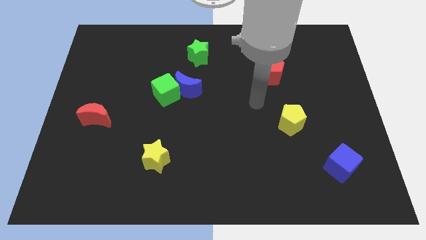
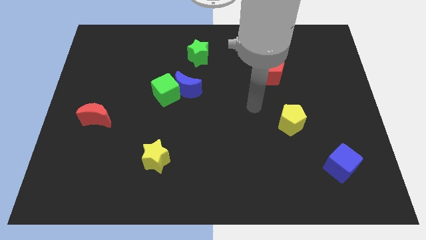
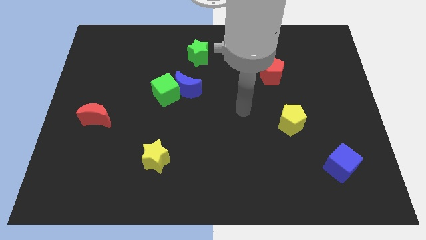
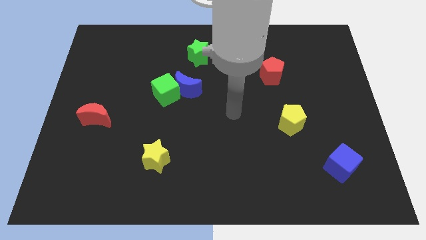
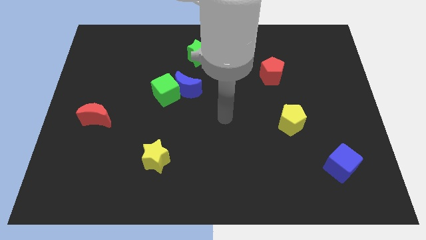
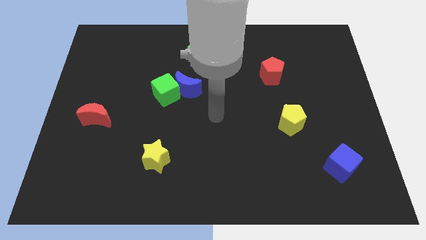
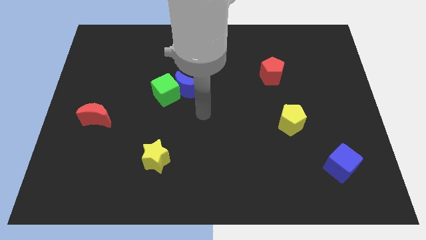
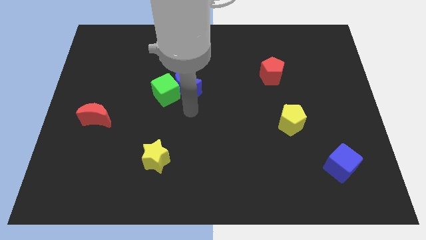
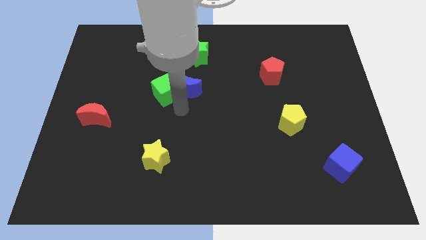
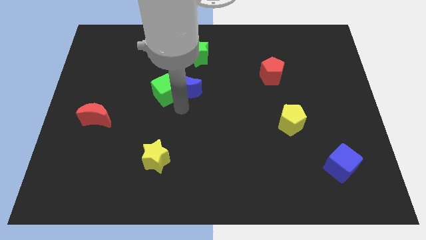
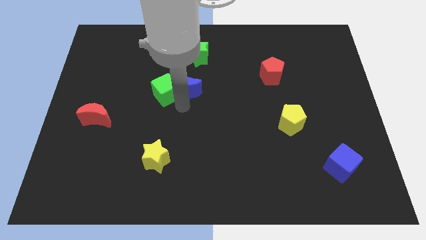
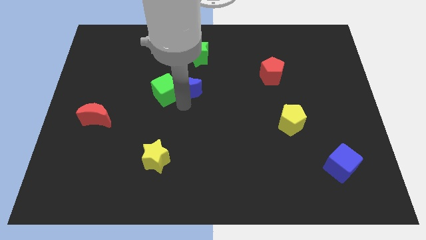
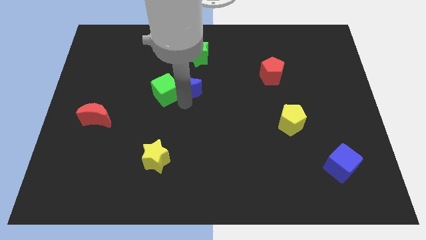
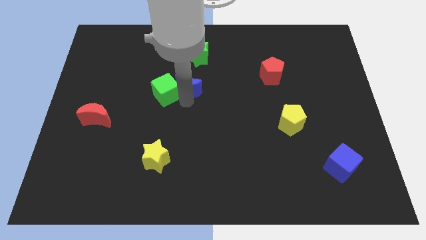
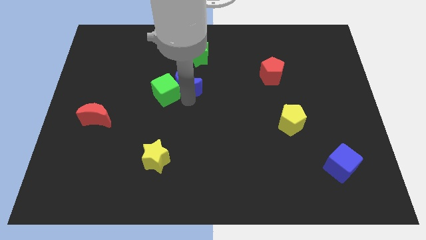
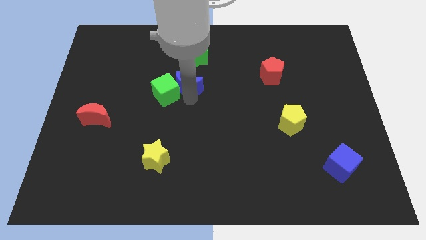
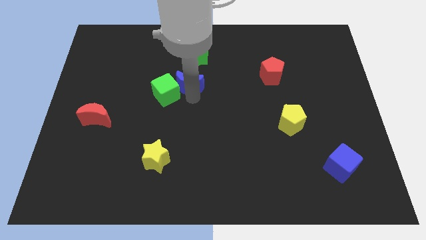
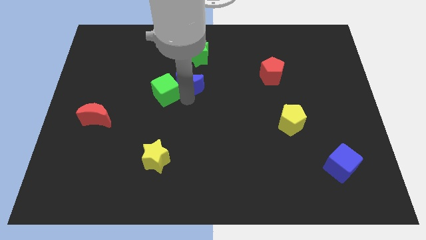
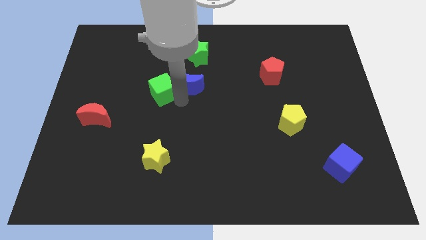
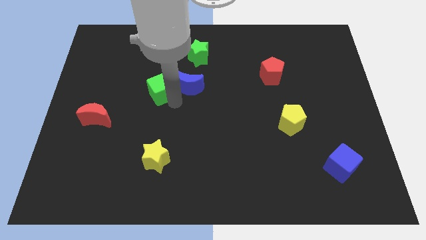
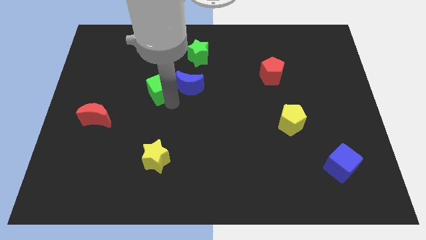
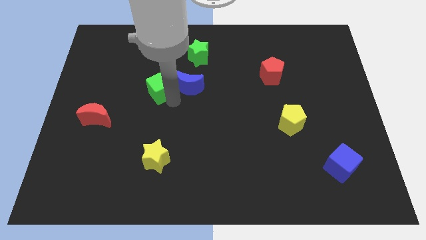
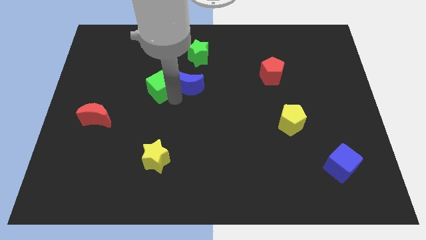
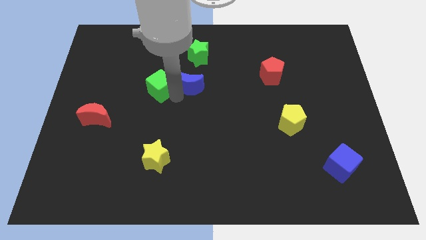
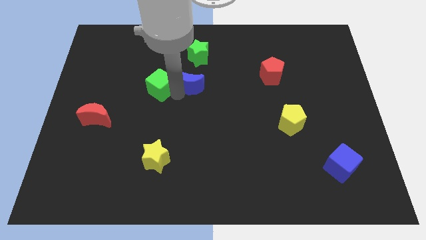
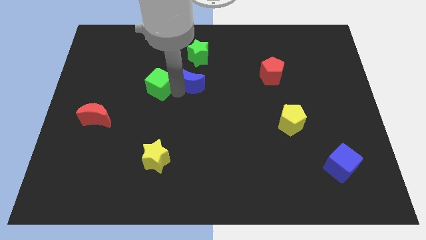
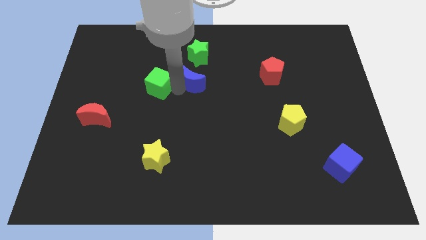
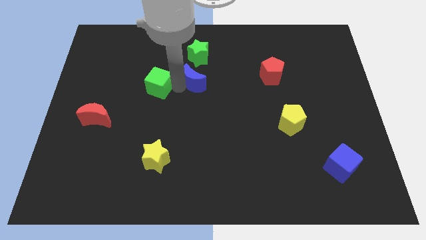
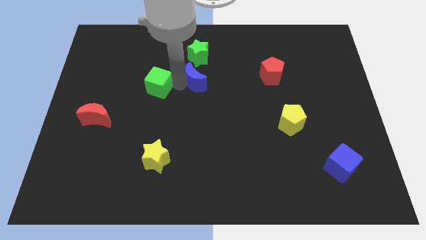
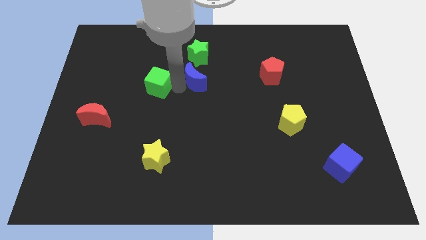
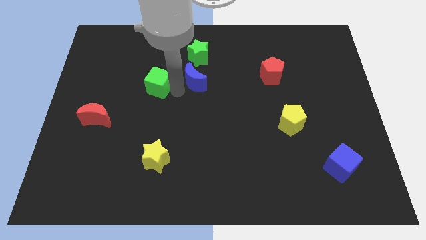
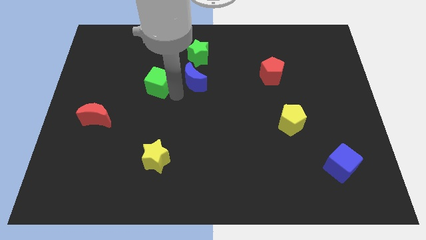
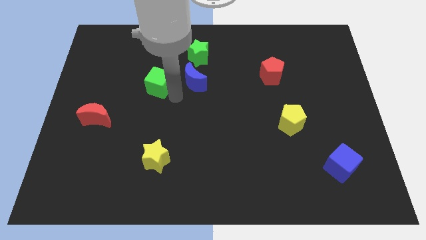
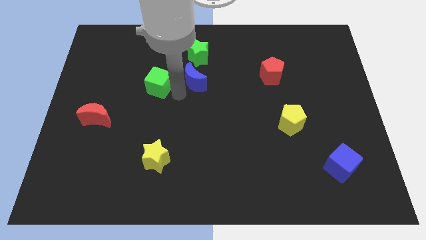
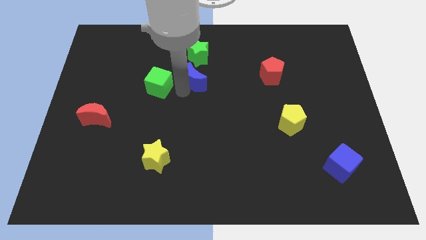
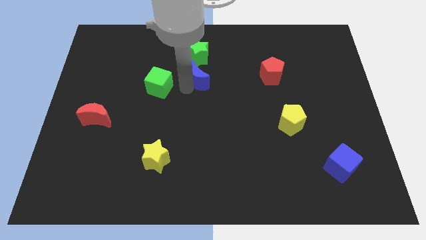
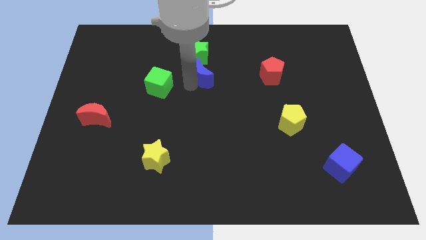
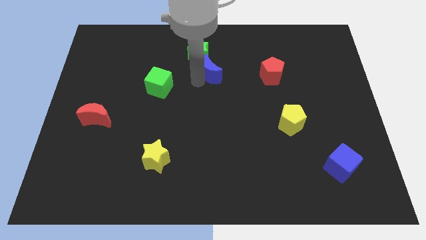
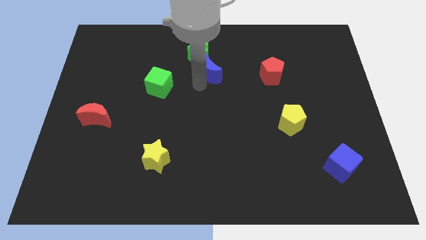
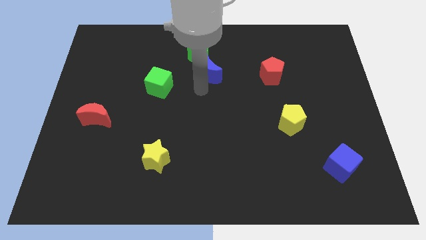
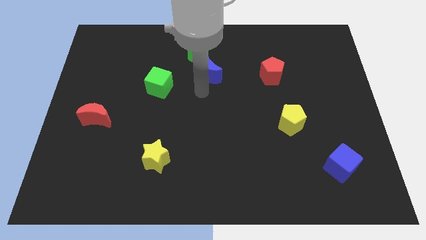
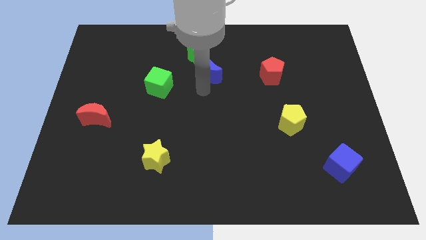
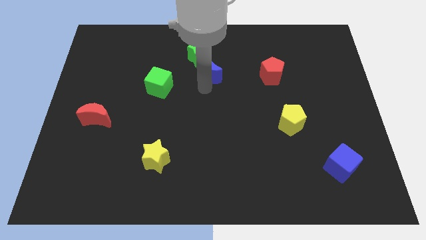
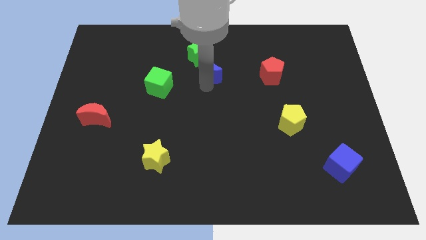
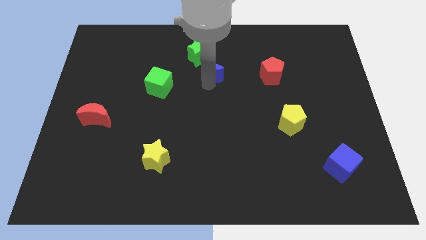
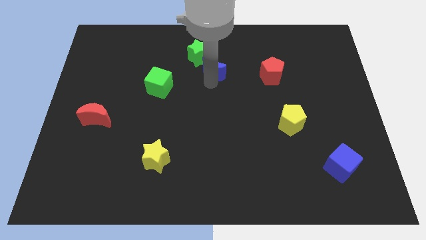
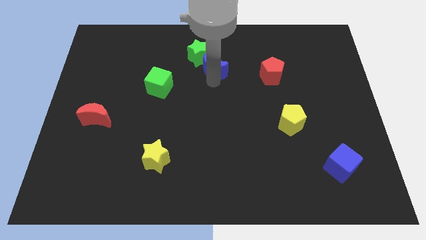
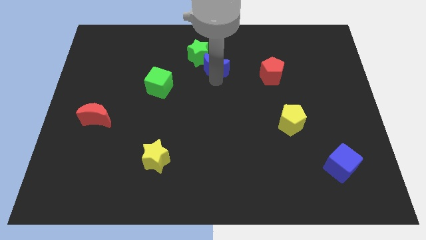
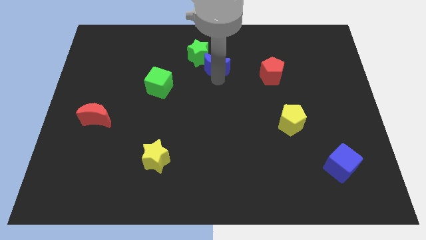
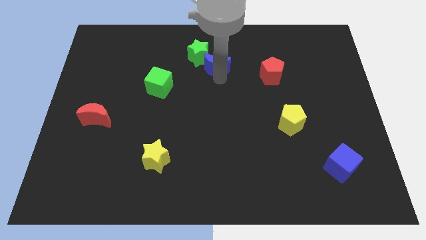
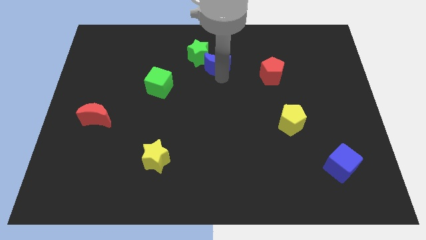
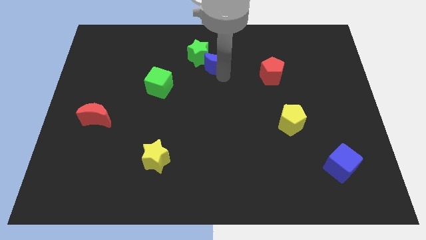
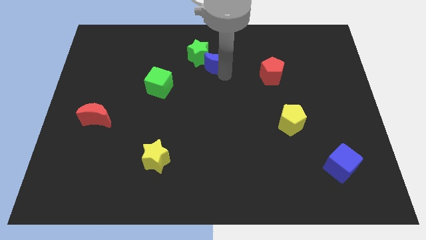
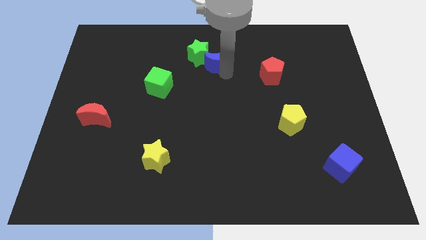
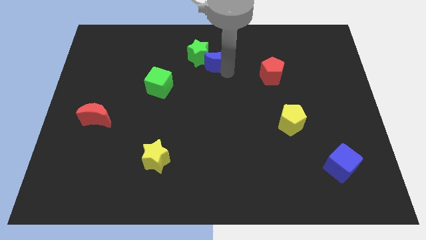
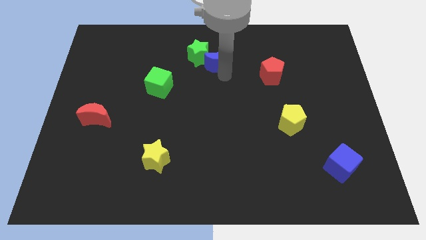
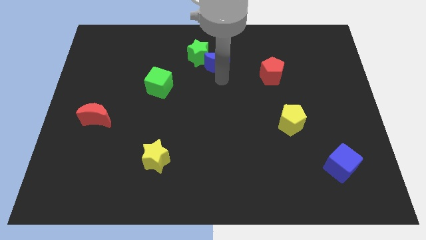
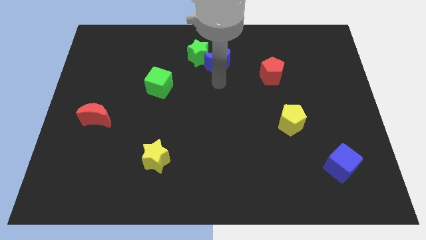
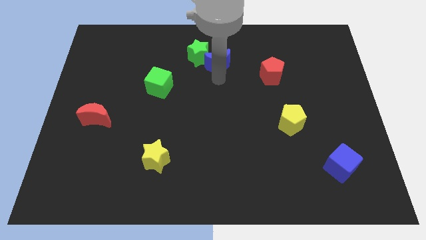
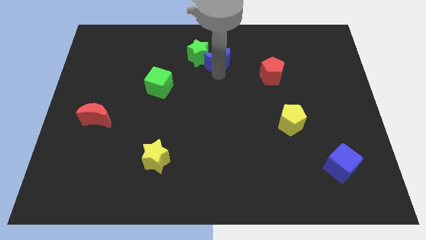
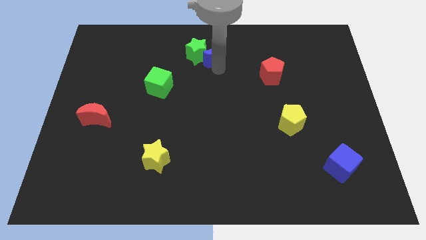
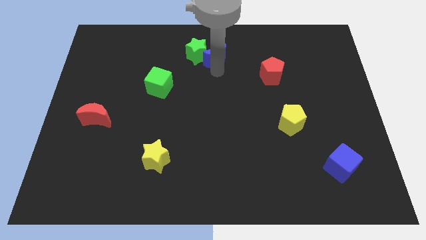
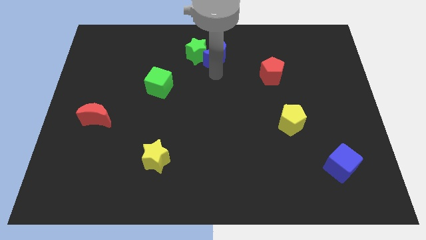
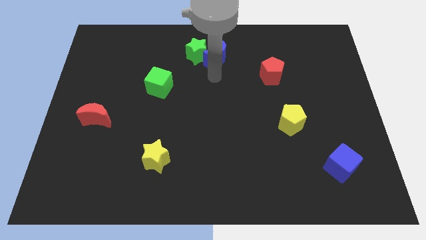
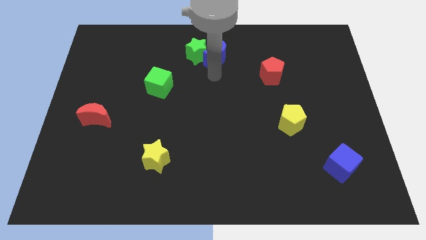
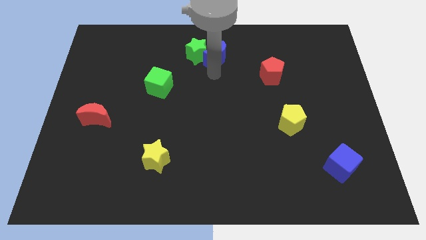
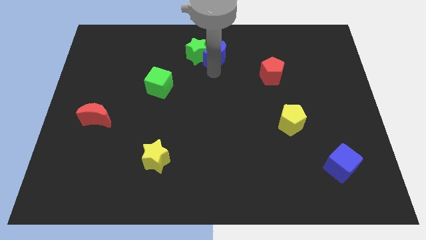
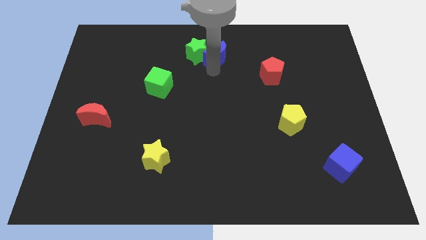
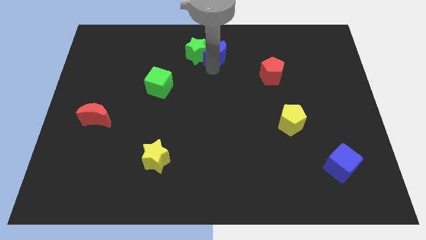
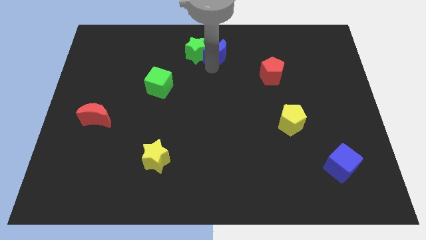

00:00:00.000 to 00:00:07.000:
move the blue moon to the top side
